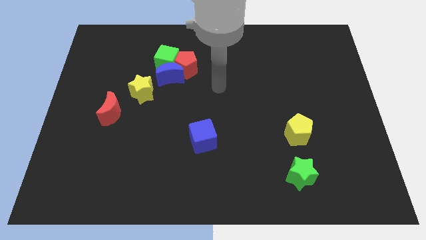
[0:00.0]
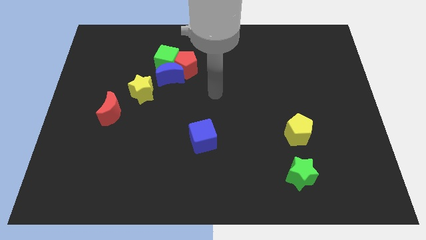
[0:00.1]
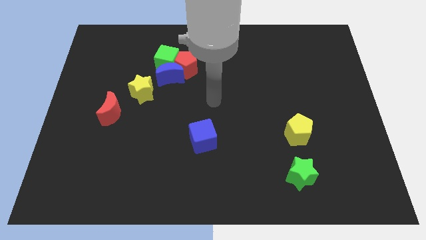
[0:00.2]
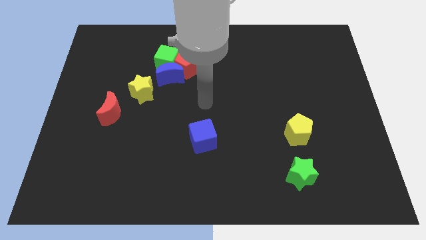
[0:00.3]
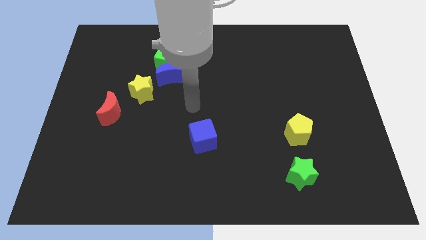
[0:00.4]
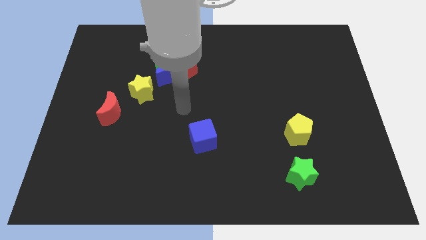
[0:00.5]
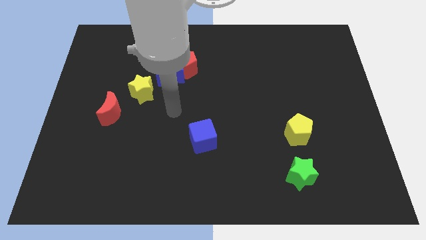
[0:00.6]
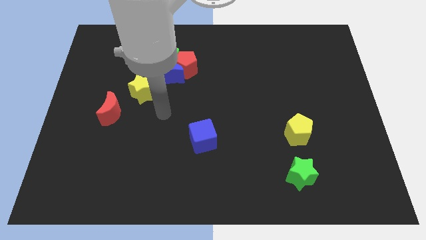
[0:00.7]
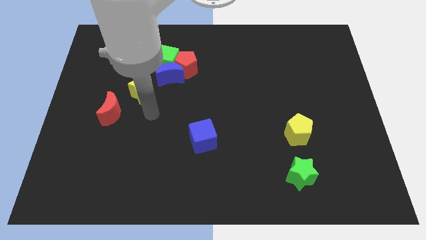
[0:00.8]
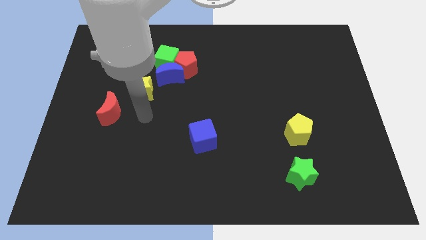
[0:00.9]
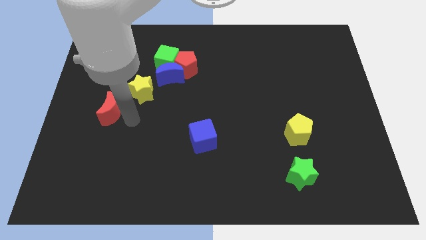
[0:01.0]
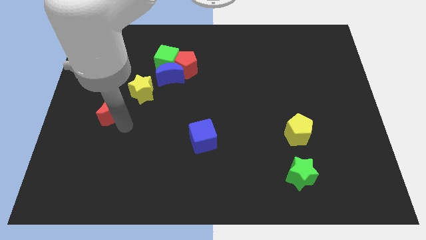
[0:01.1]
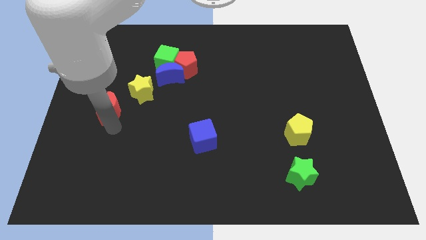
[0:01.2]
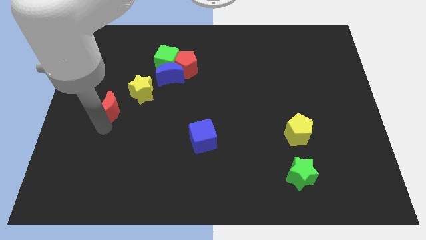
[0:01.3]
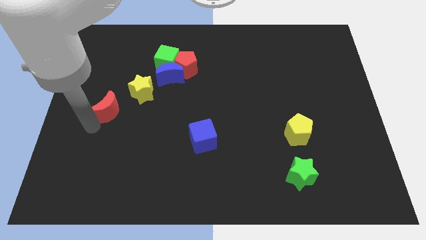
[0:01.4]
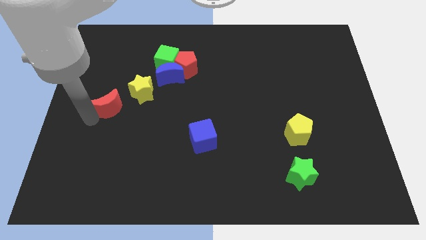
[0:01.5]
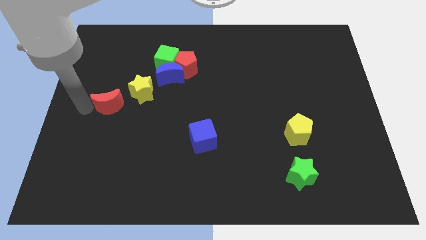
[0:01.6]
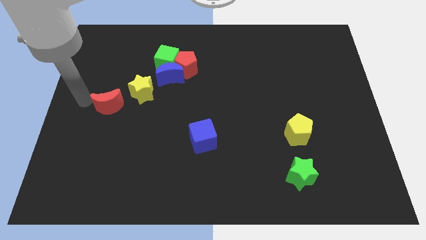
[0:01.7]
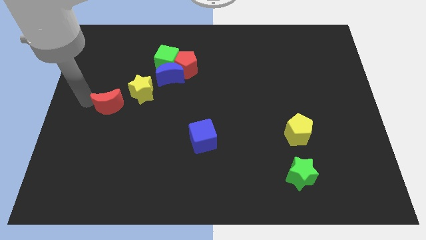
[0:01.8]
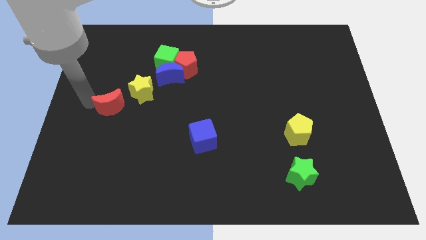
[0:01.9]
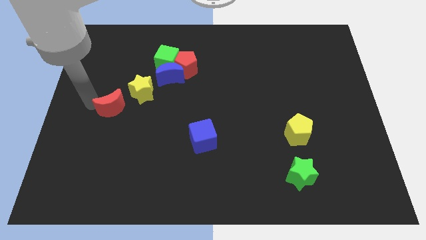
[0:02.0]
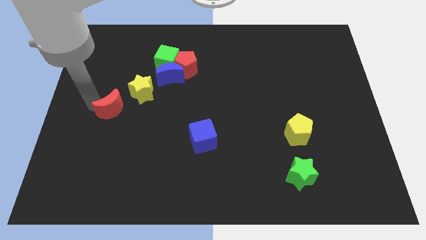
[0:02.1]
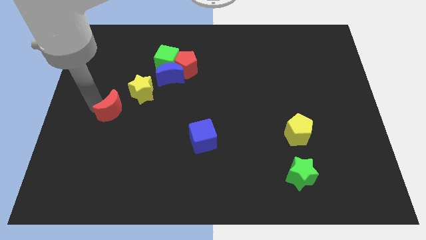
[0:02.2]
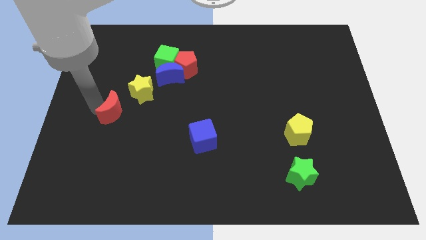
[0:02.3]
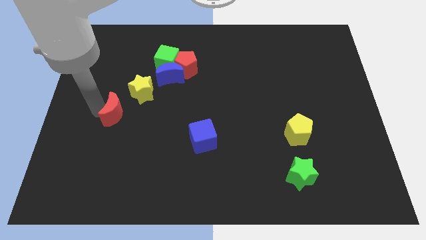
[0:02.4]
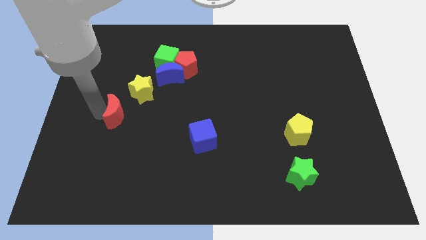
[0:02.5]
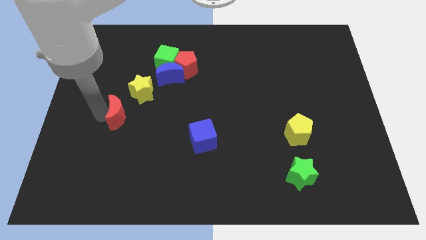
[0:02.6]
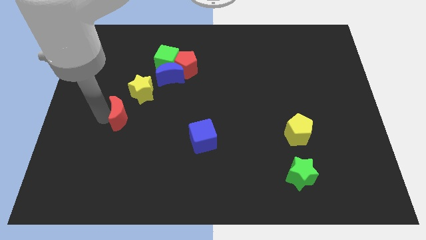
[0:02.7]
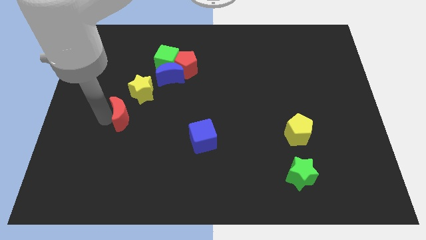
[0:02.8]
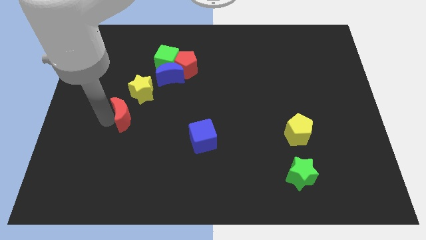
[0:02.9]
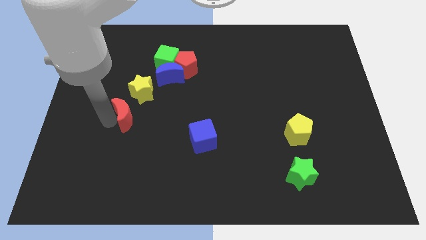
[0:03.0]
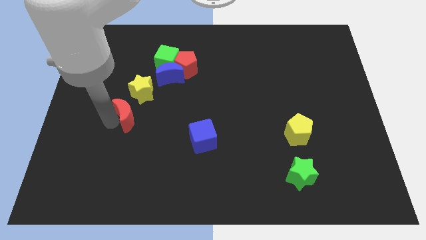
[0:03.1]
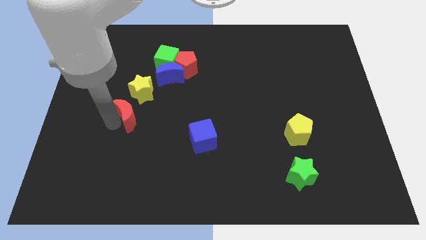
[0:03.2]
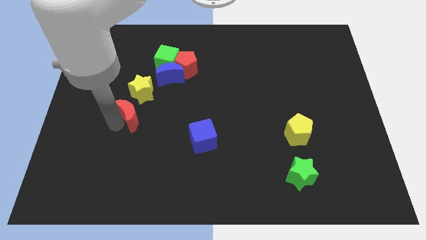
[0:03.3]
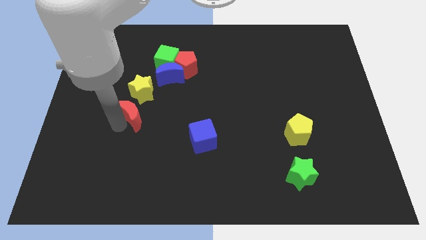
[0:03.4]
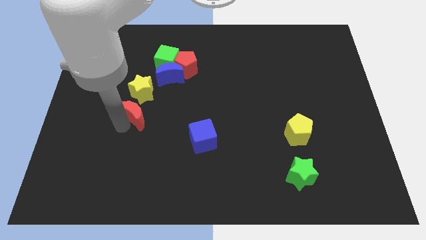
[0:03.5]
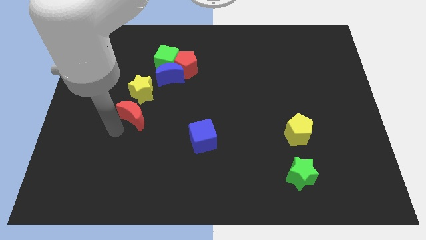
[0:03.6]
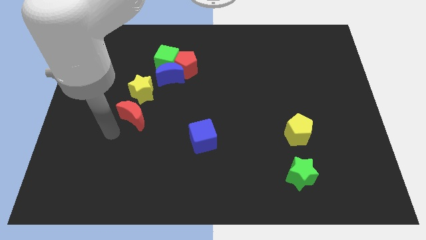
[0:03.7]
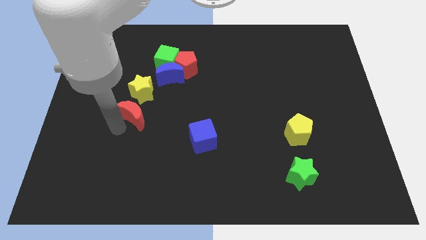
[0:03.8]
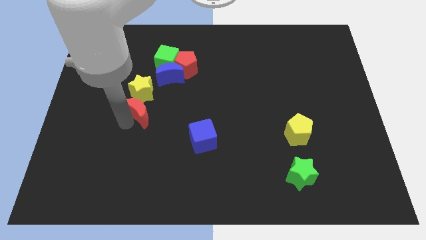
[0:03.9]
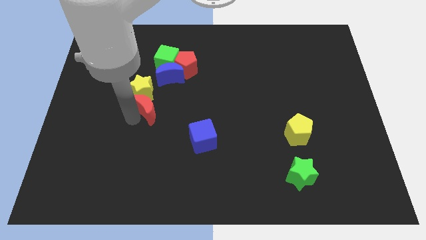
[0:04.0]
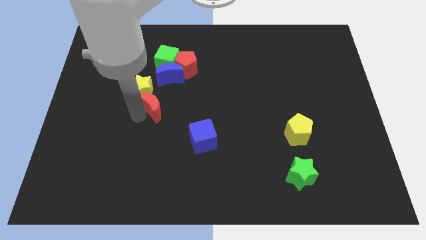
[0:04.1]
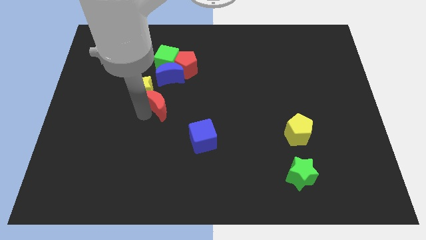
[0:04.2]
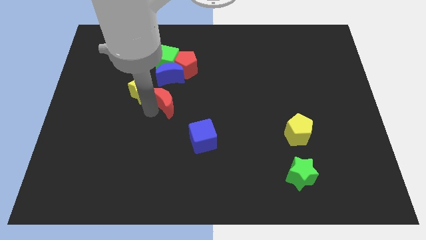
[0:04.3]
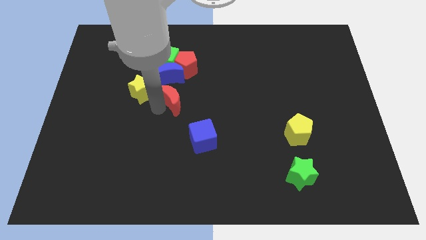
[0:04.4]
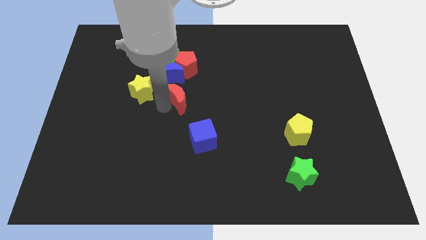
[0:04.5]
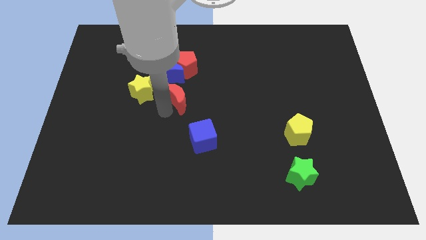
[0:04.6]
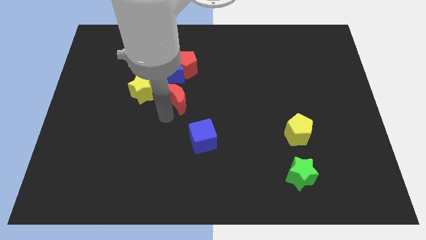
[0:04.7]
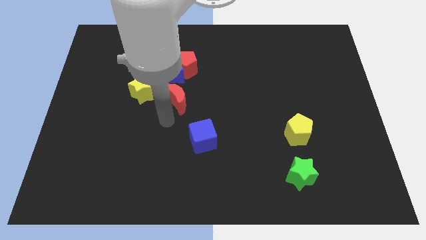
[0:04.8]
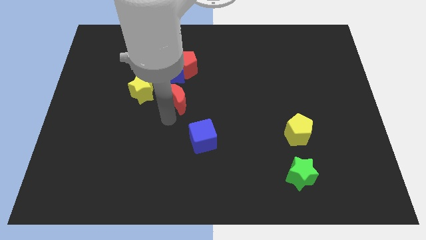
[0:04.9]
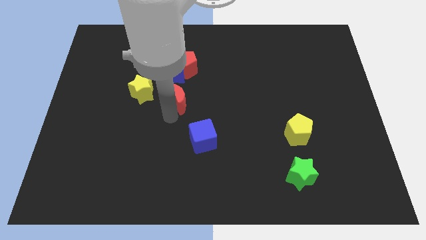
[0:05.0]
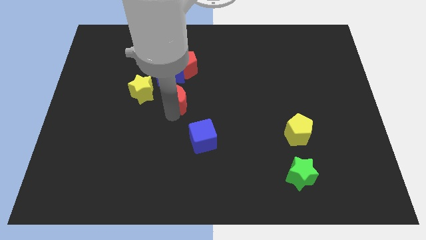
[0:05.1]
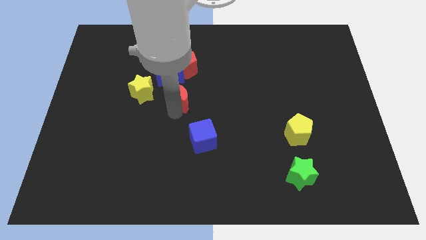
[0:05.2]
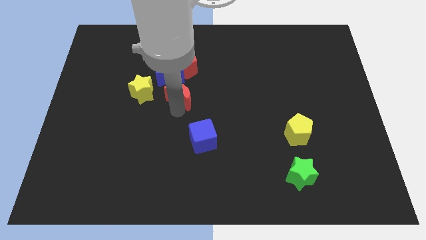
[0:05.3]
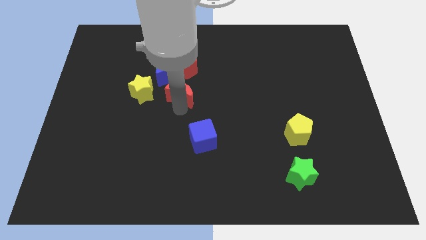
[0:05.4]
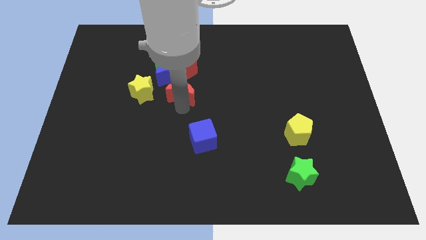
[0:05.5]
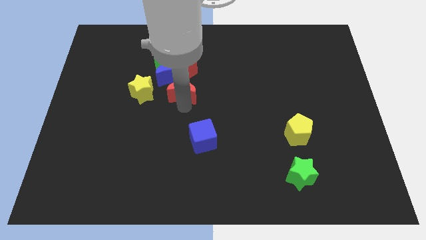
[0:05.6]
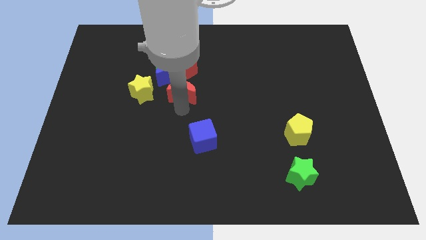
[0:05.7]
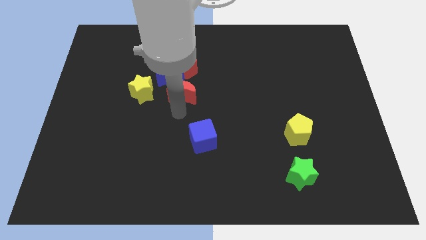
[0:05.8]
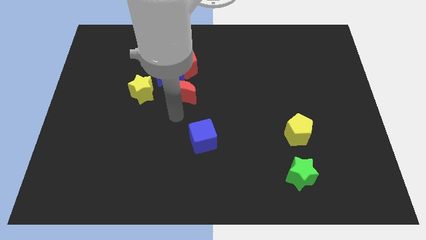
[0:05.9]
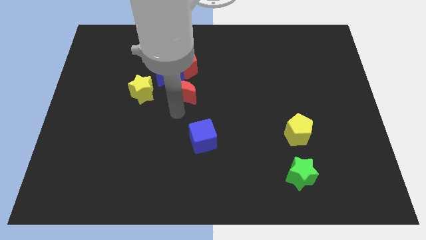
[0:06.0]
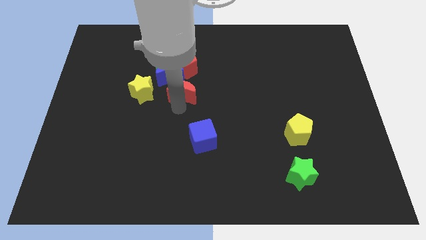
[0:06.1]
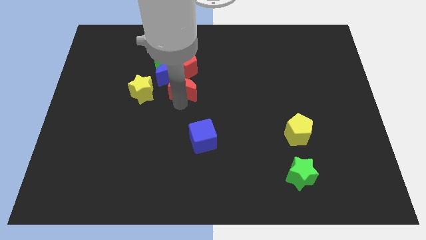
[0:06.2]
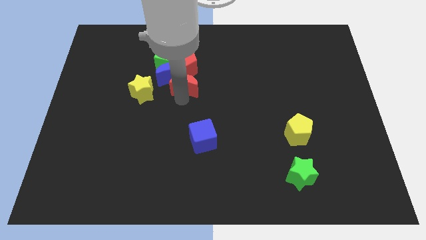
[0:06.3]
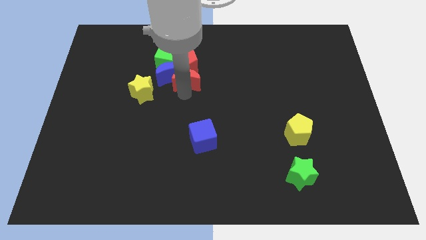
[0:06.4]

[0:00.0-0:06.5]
slide the red moon next to the red pentagon

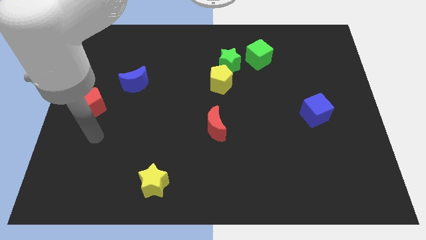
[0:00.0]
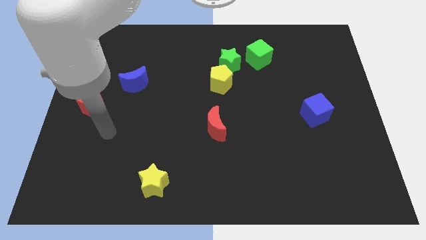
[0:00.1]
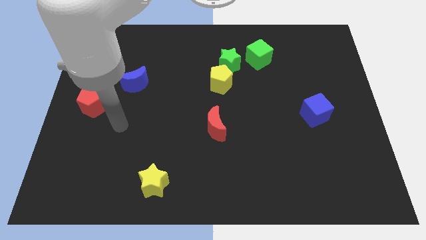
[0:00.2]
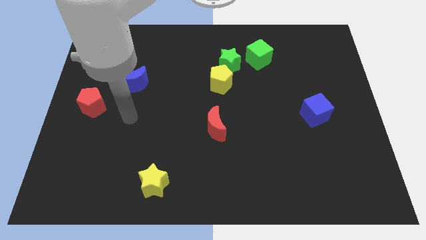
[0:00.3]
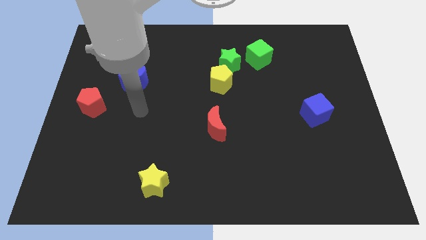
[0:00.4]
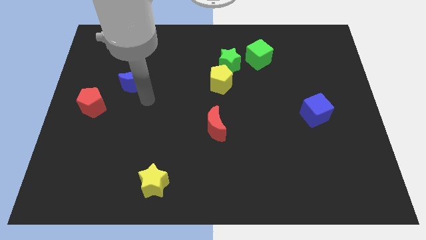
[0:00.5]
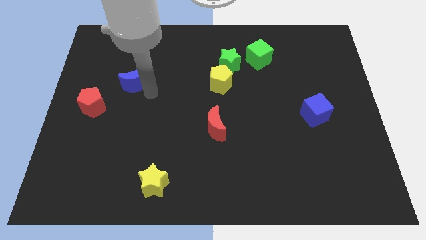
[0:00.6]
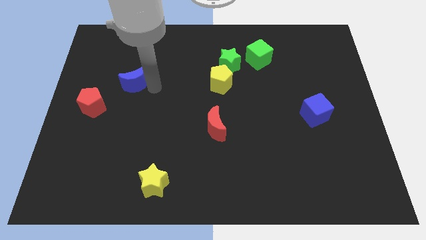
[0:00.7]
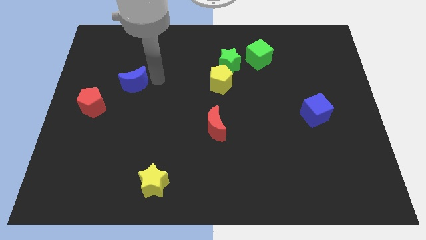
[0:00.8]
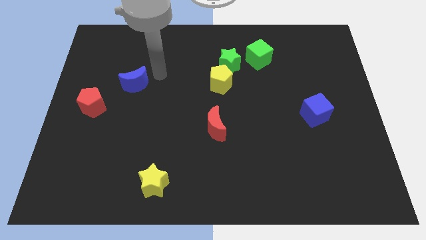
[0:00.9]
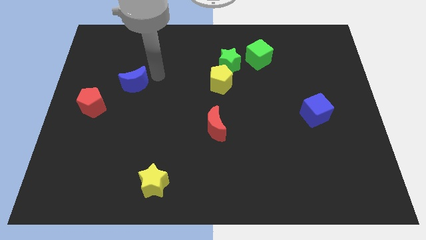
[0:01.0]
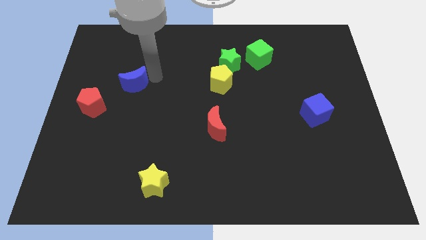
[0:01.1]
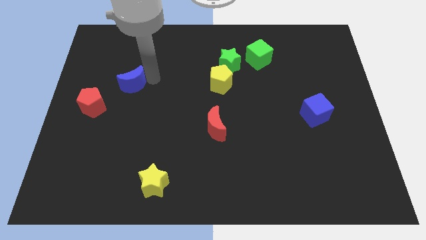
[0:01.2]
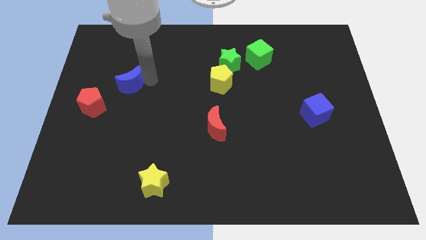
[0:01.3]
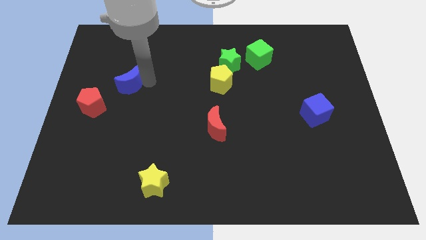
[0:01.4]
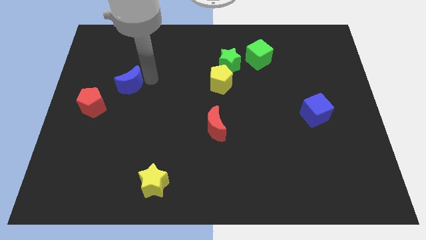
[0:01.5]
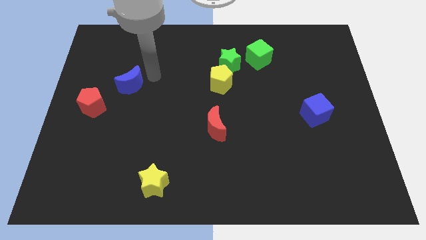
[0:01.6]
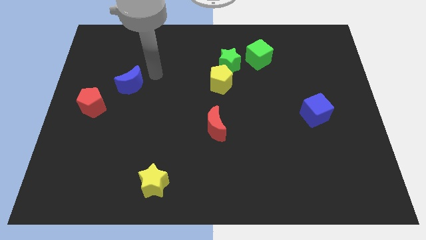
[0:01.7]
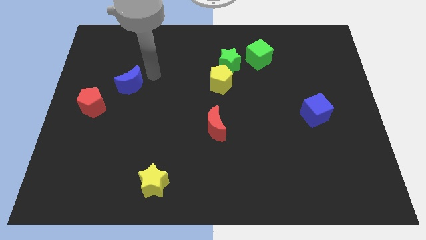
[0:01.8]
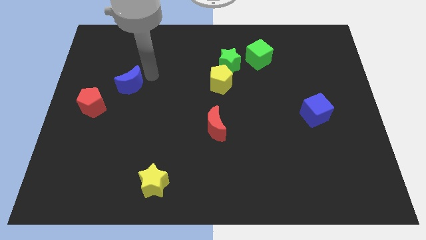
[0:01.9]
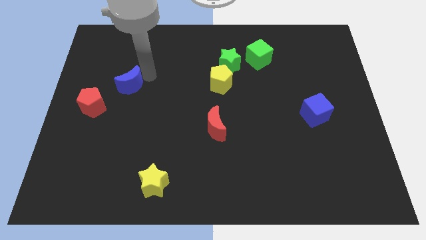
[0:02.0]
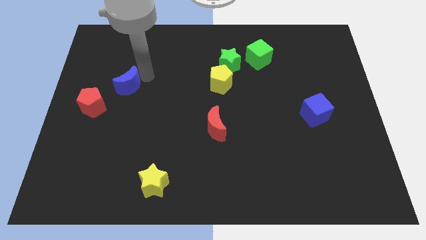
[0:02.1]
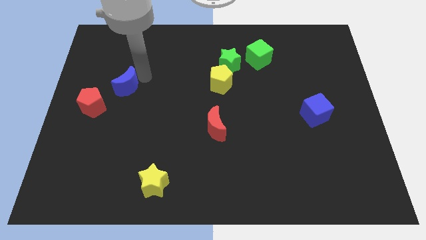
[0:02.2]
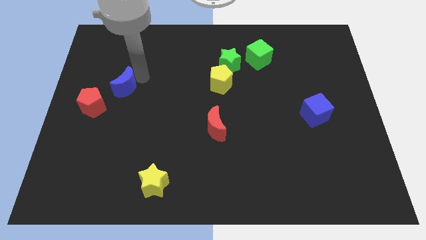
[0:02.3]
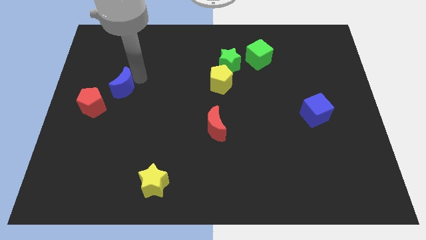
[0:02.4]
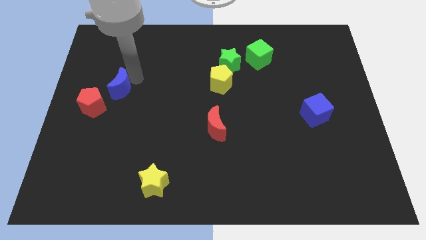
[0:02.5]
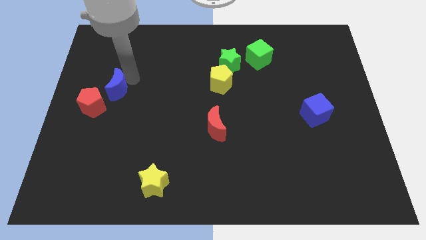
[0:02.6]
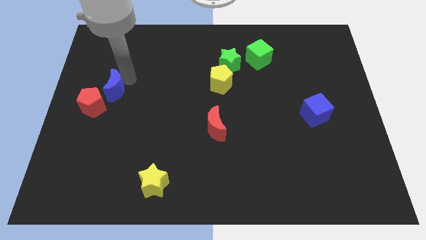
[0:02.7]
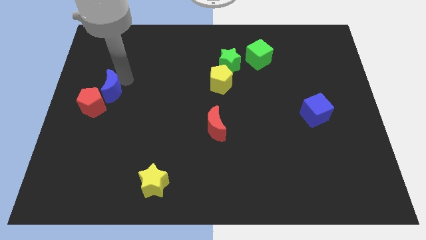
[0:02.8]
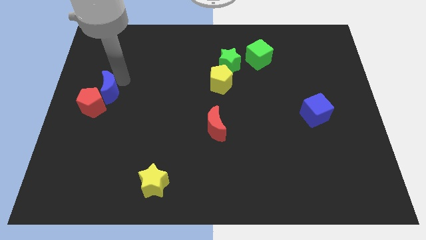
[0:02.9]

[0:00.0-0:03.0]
slide the blue moon to the red pentagon
